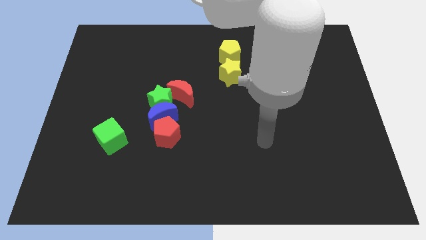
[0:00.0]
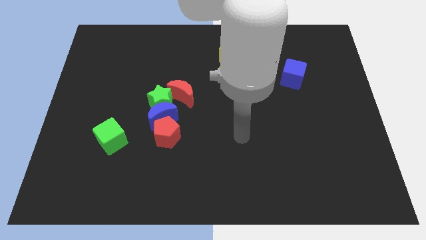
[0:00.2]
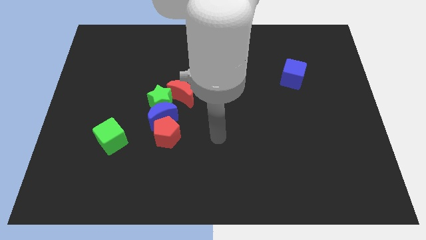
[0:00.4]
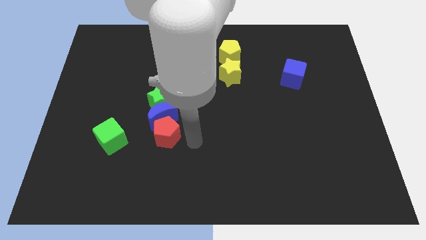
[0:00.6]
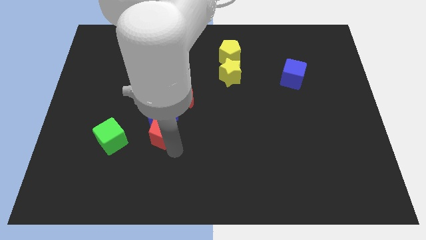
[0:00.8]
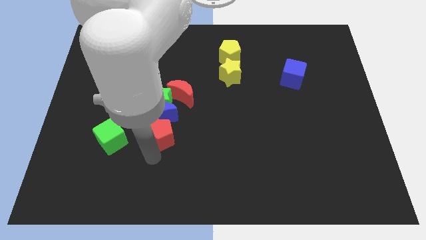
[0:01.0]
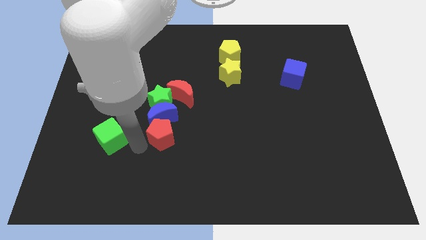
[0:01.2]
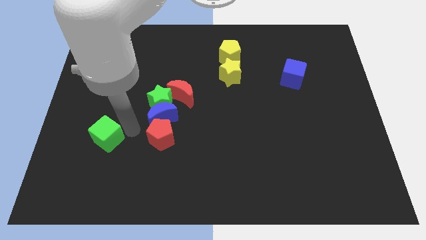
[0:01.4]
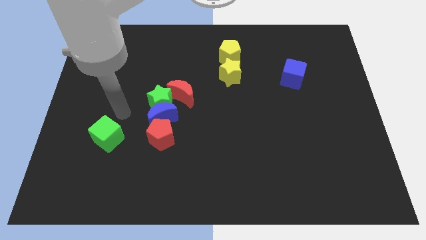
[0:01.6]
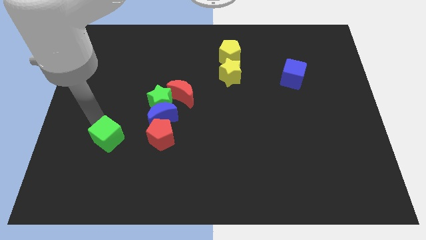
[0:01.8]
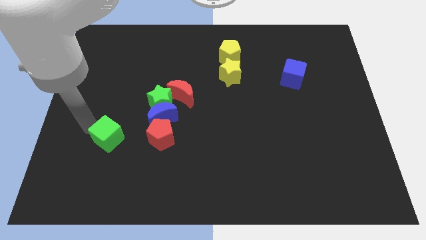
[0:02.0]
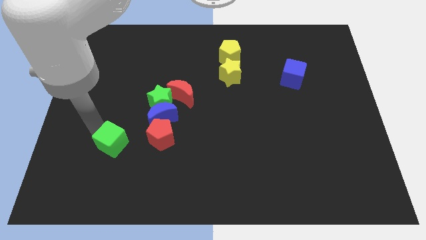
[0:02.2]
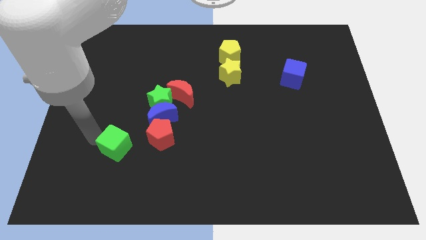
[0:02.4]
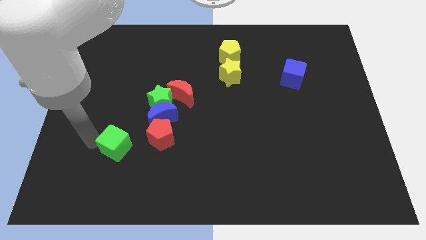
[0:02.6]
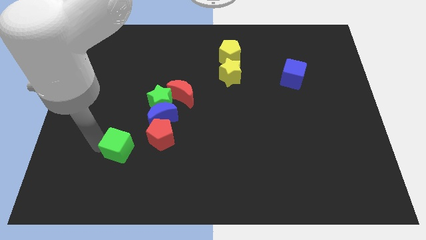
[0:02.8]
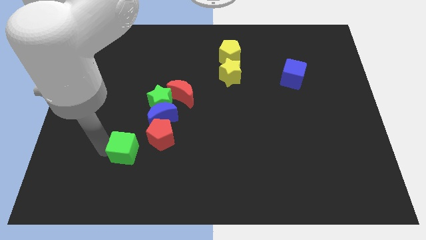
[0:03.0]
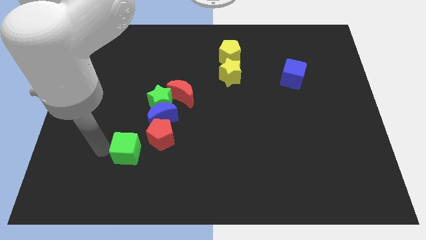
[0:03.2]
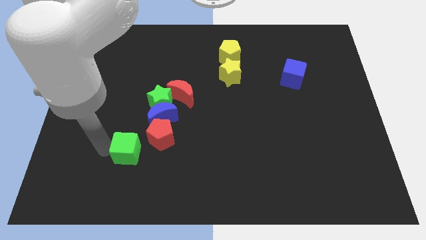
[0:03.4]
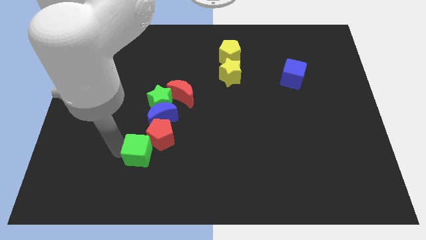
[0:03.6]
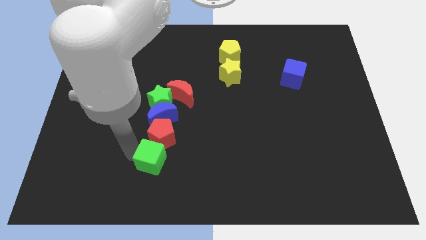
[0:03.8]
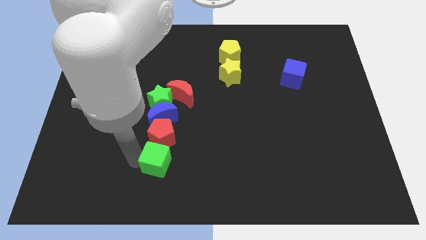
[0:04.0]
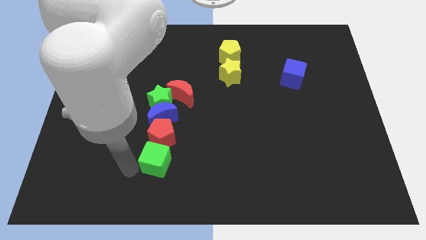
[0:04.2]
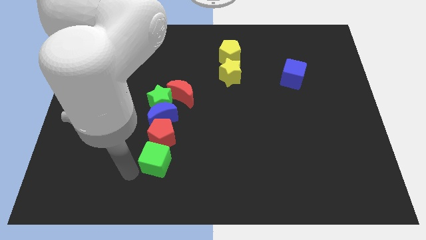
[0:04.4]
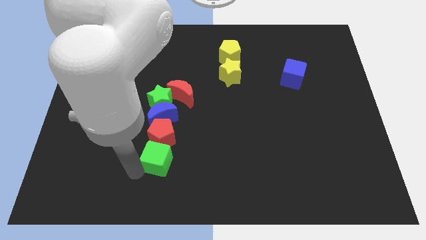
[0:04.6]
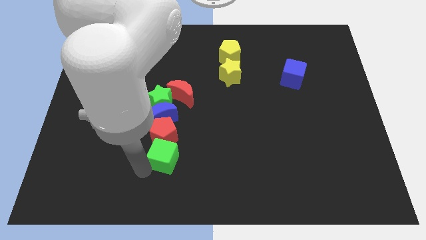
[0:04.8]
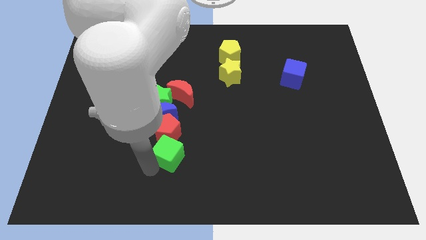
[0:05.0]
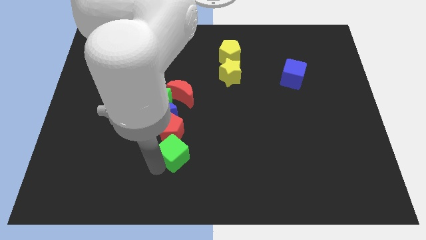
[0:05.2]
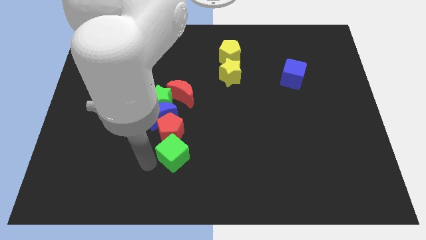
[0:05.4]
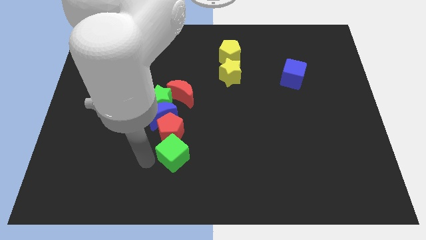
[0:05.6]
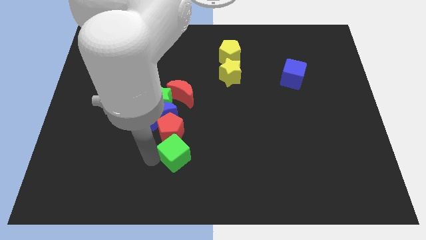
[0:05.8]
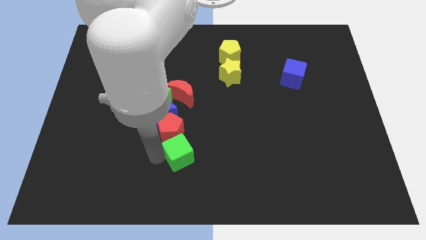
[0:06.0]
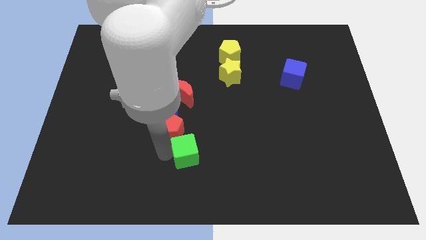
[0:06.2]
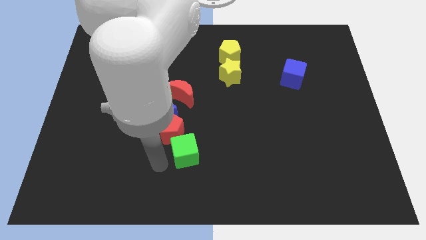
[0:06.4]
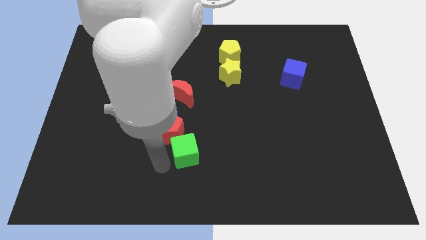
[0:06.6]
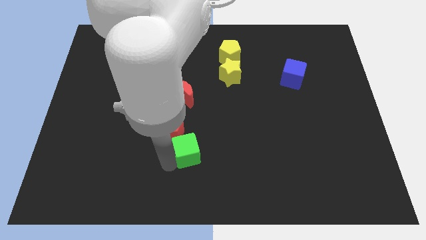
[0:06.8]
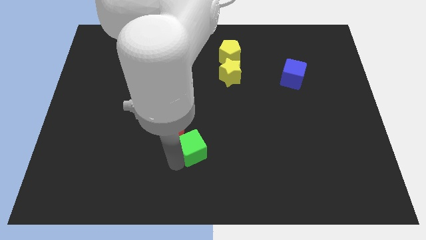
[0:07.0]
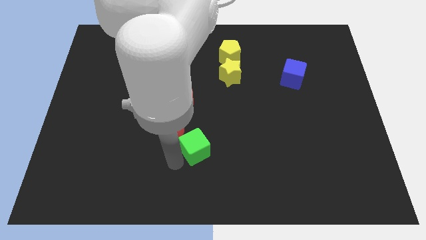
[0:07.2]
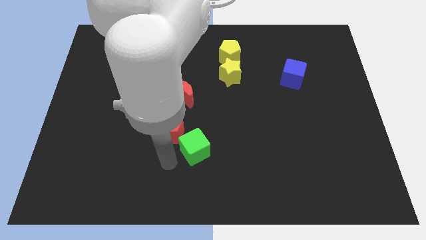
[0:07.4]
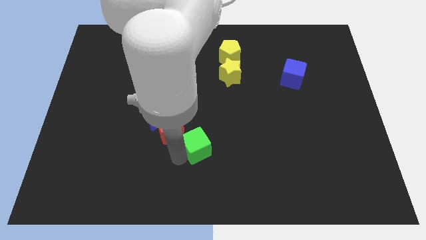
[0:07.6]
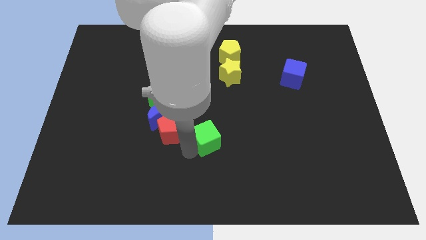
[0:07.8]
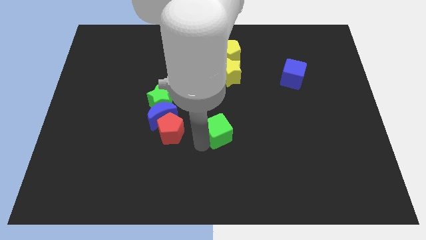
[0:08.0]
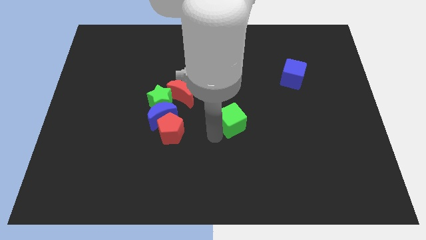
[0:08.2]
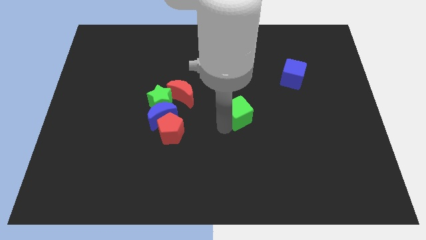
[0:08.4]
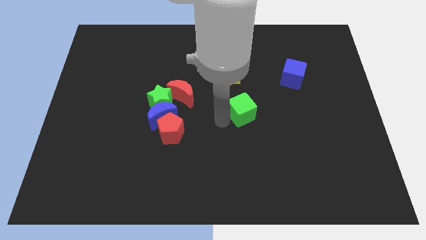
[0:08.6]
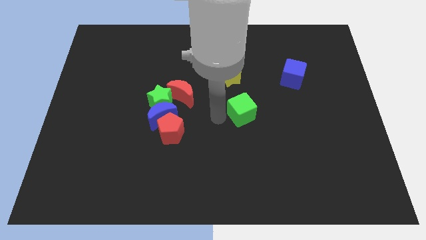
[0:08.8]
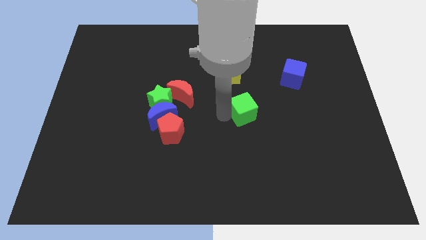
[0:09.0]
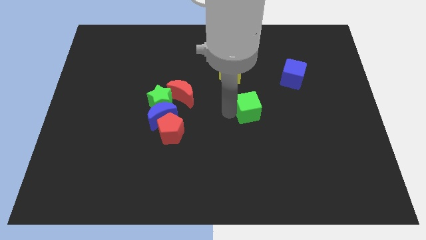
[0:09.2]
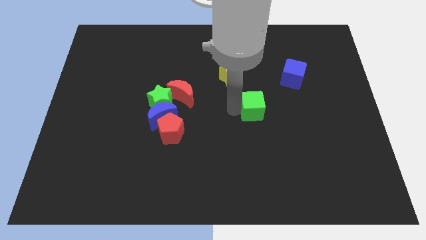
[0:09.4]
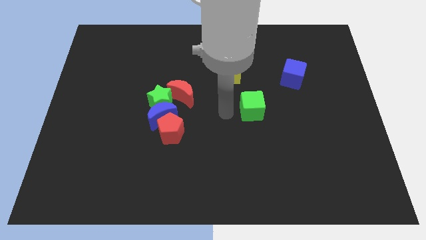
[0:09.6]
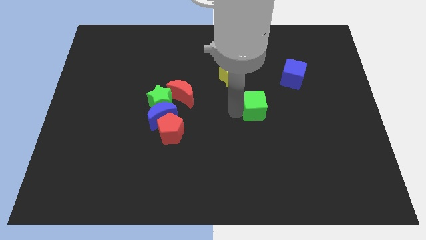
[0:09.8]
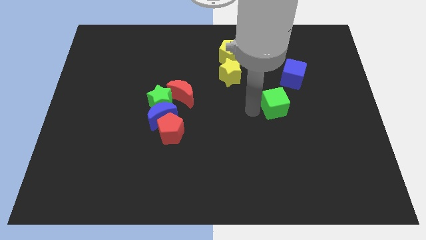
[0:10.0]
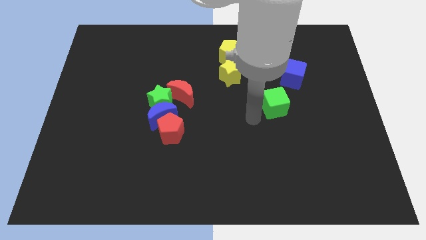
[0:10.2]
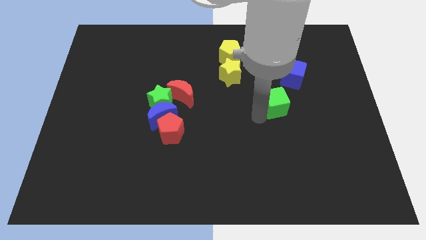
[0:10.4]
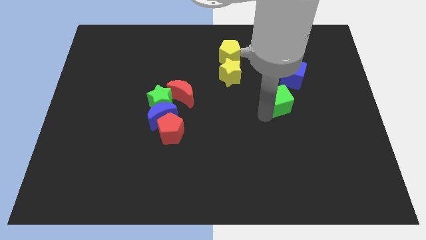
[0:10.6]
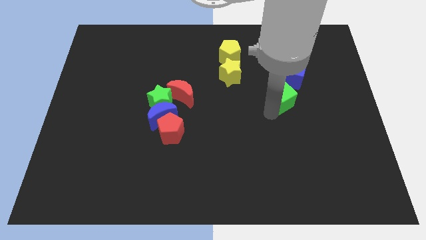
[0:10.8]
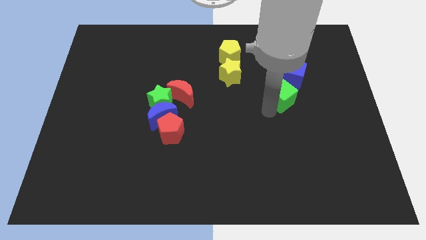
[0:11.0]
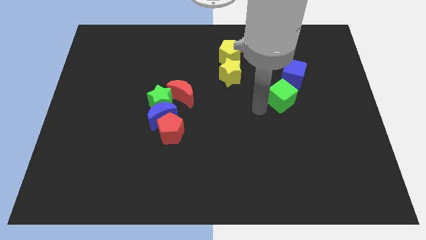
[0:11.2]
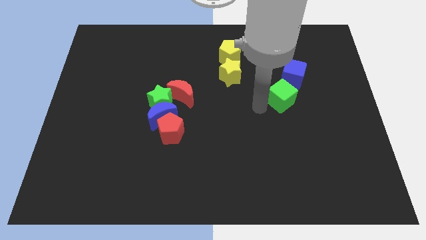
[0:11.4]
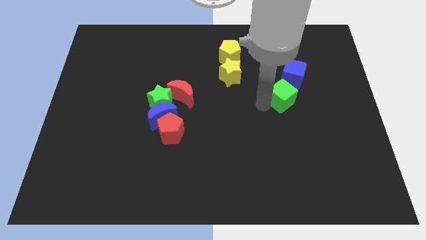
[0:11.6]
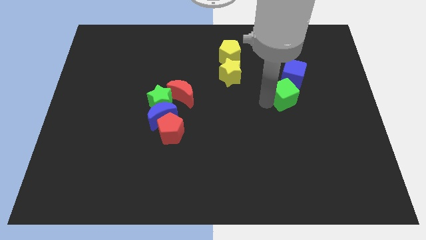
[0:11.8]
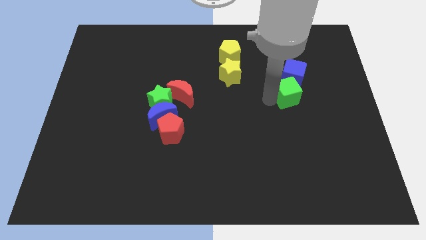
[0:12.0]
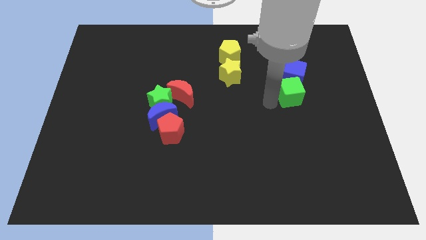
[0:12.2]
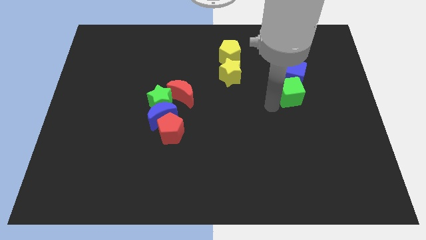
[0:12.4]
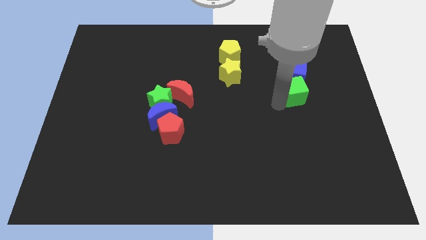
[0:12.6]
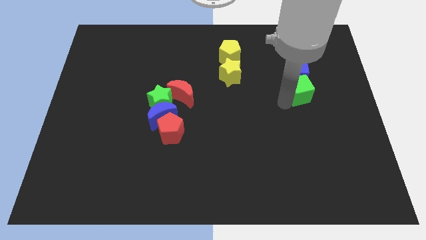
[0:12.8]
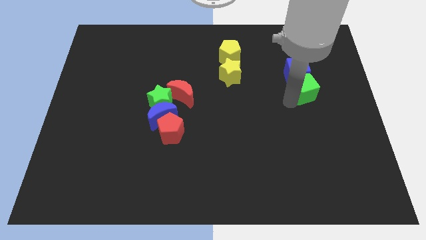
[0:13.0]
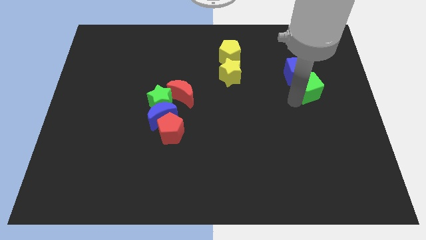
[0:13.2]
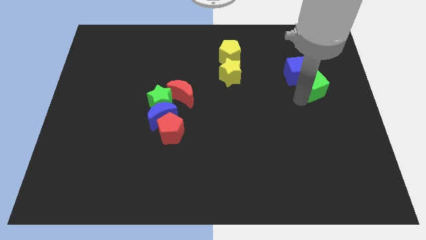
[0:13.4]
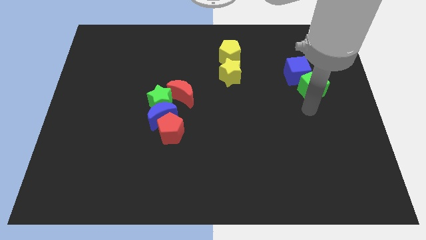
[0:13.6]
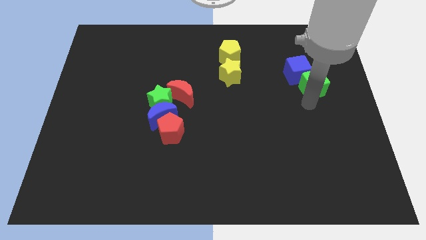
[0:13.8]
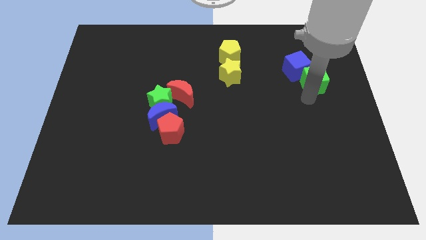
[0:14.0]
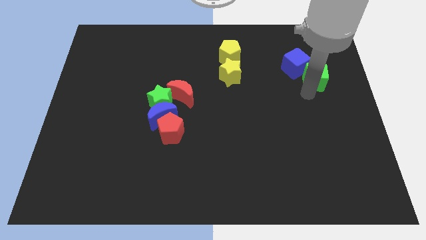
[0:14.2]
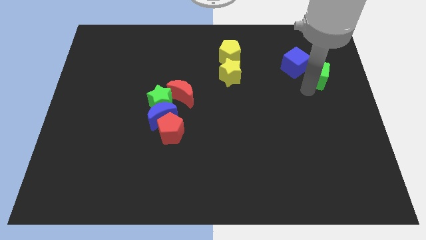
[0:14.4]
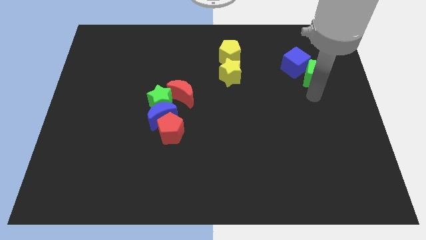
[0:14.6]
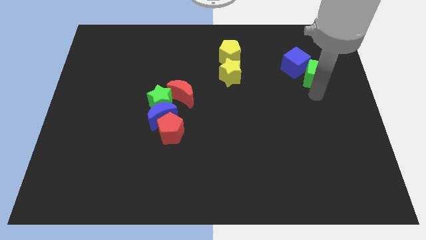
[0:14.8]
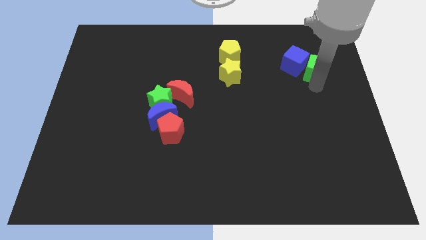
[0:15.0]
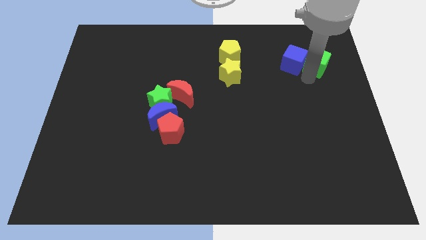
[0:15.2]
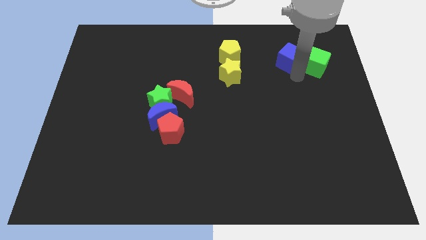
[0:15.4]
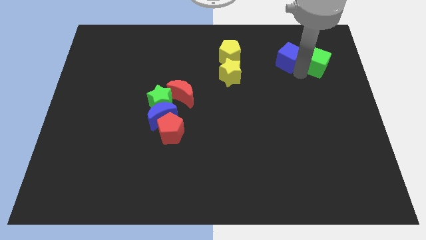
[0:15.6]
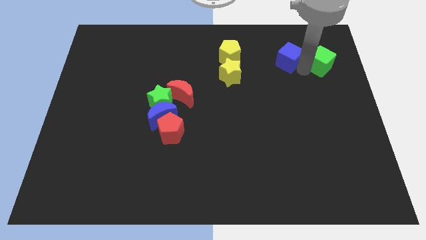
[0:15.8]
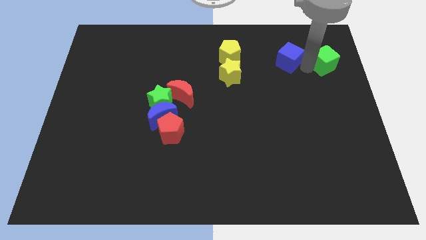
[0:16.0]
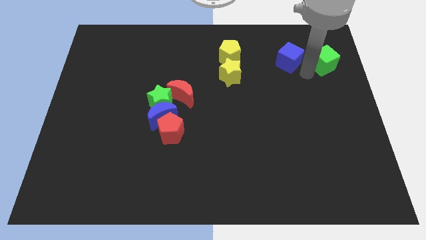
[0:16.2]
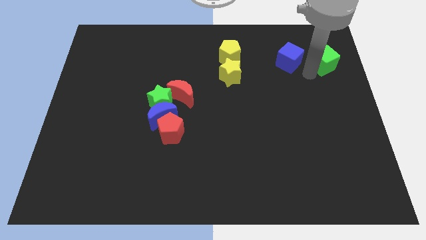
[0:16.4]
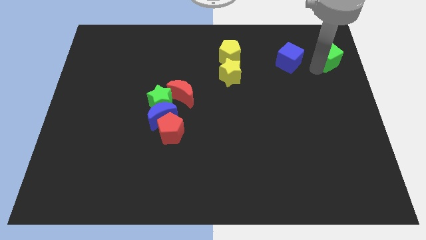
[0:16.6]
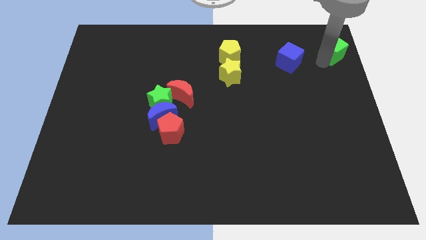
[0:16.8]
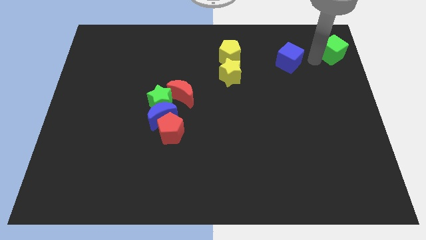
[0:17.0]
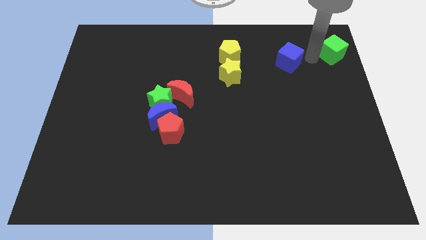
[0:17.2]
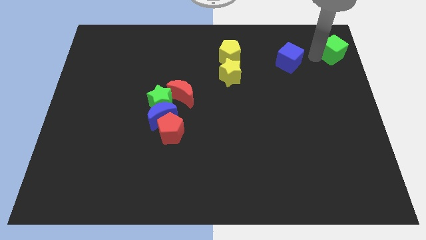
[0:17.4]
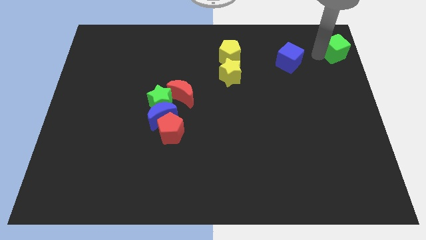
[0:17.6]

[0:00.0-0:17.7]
push the green cube to the top right of the board
